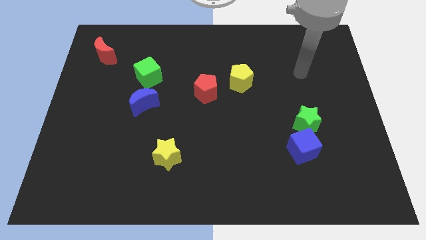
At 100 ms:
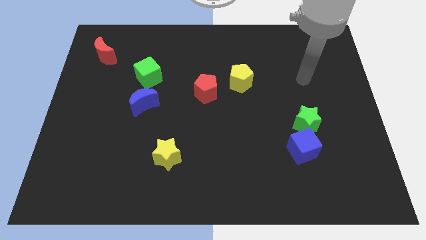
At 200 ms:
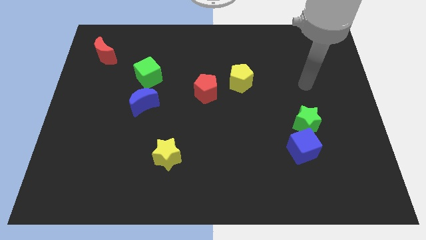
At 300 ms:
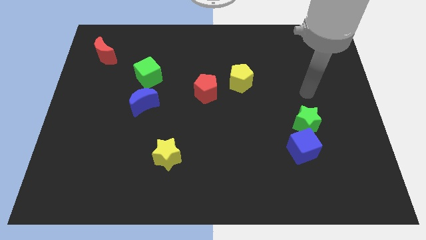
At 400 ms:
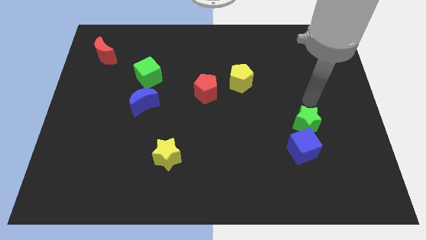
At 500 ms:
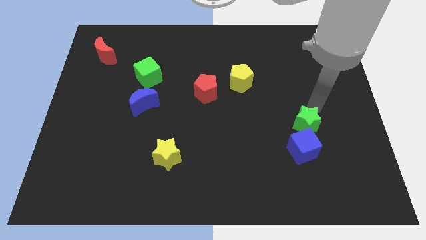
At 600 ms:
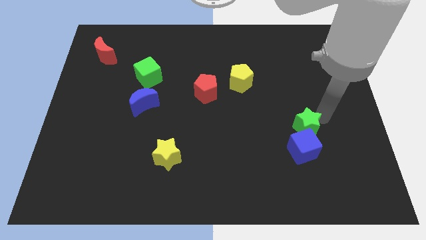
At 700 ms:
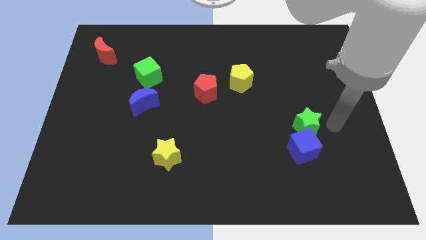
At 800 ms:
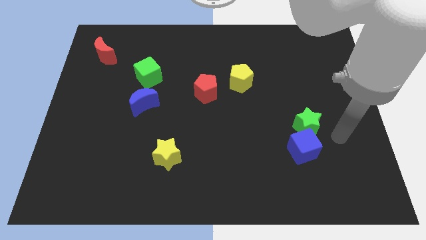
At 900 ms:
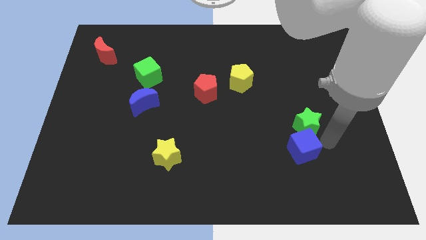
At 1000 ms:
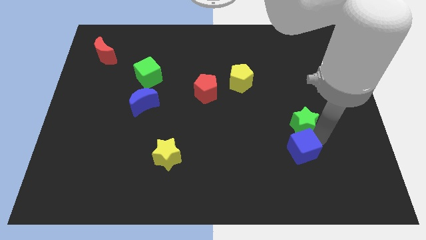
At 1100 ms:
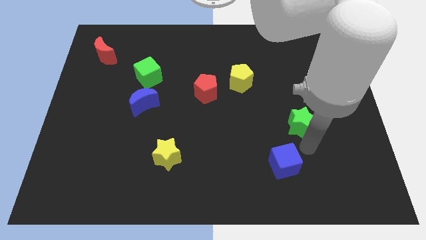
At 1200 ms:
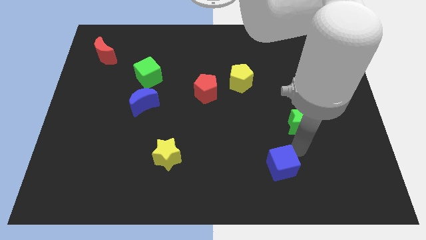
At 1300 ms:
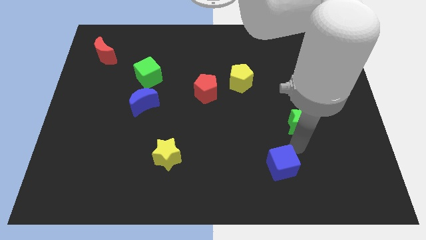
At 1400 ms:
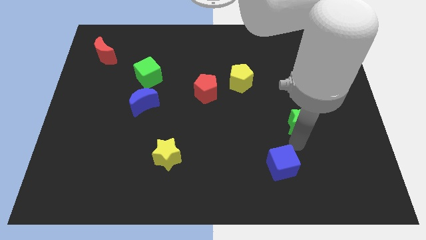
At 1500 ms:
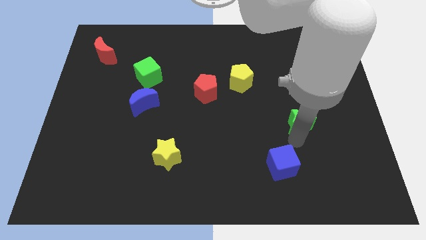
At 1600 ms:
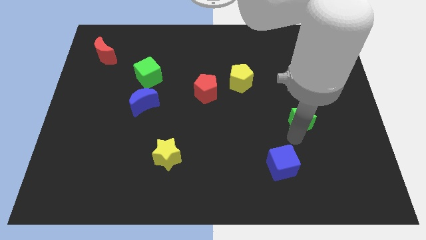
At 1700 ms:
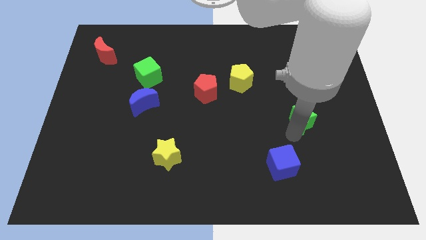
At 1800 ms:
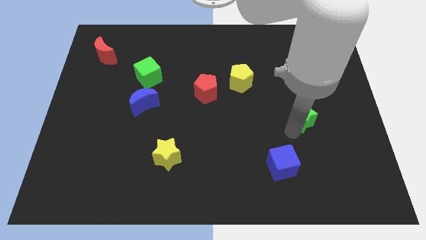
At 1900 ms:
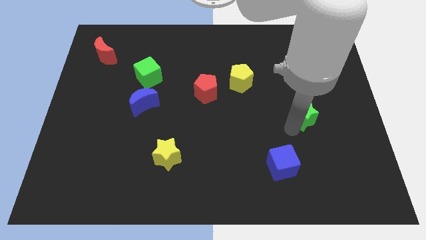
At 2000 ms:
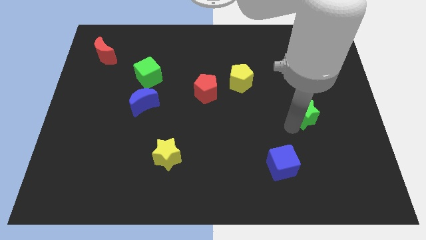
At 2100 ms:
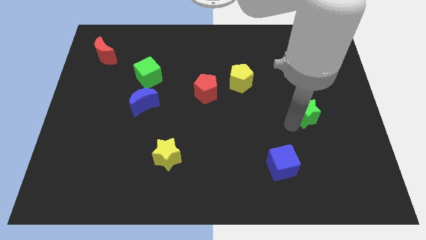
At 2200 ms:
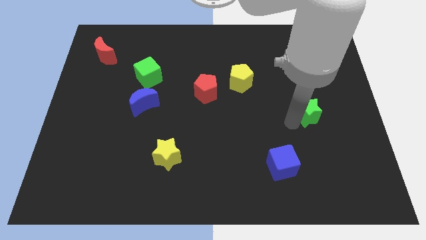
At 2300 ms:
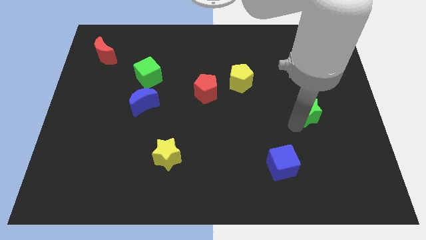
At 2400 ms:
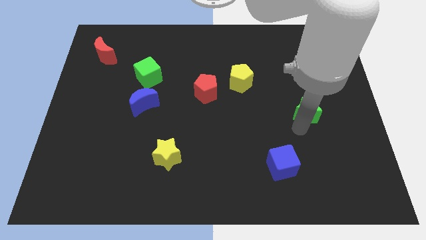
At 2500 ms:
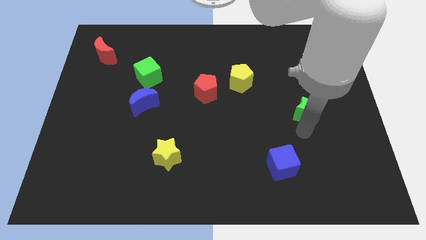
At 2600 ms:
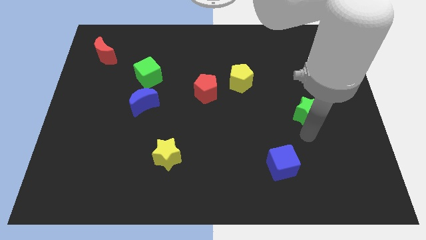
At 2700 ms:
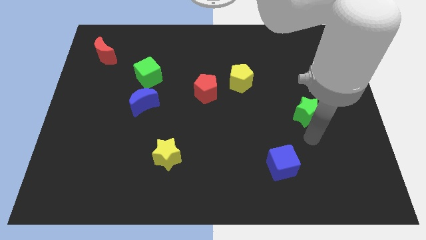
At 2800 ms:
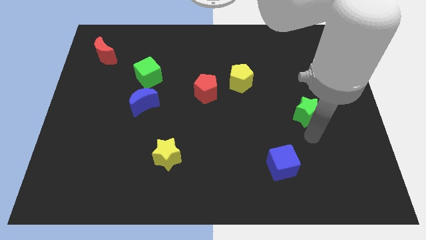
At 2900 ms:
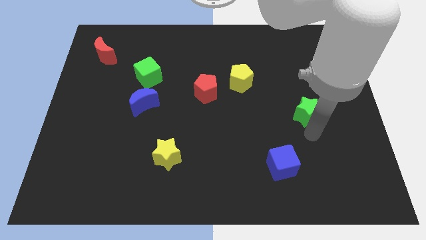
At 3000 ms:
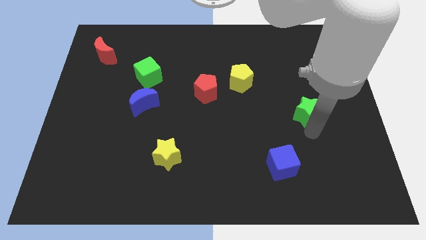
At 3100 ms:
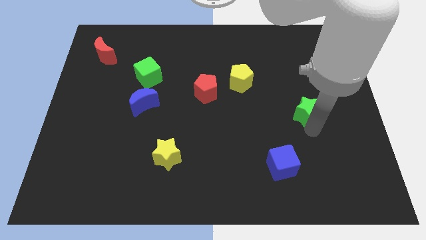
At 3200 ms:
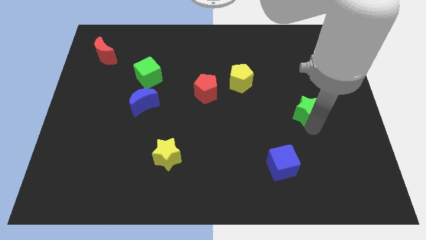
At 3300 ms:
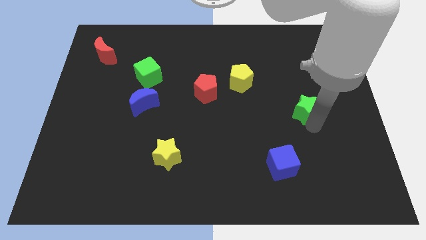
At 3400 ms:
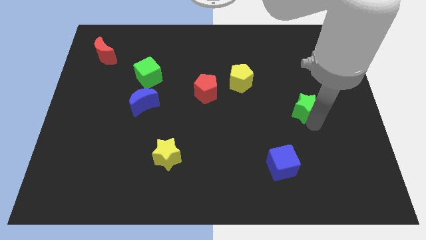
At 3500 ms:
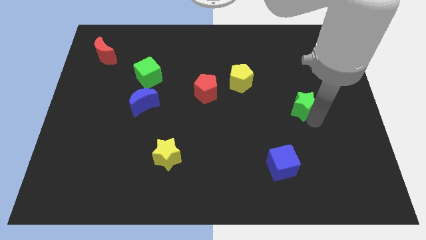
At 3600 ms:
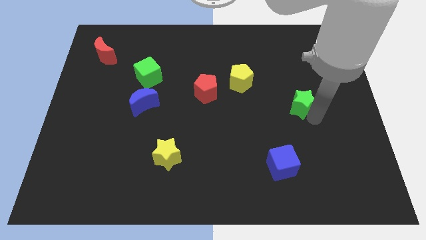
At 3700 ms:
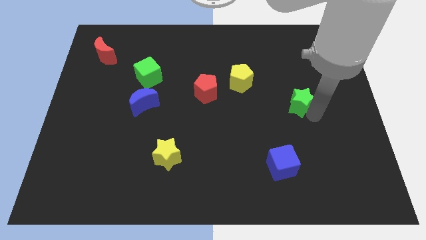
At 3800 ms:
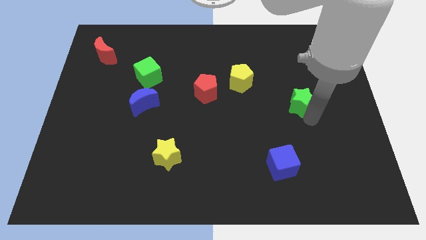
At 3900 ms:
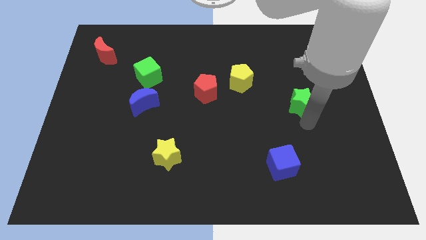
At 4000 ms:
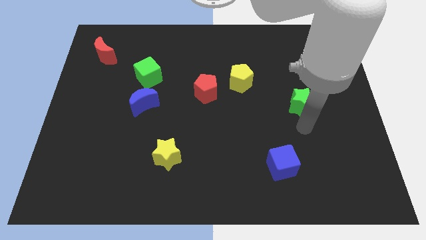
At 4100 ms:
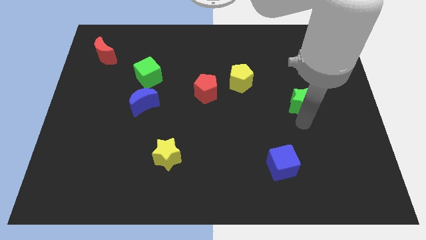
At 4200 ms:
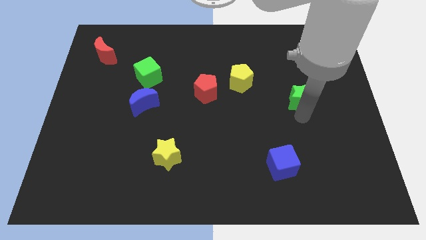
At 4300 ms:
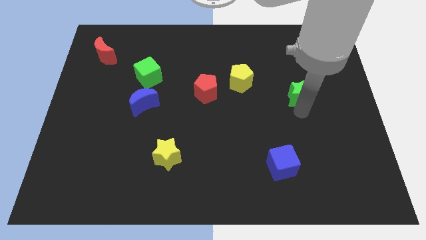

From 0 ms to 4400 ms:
slide the green star somewhat up

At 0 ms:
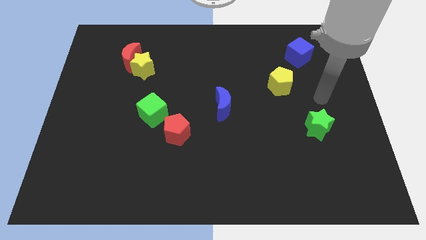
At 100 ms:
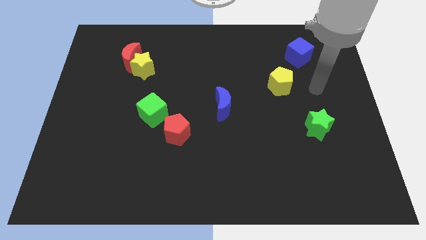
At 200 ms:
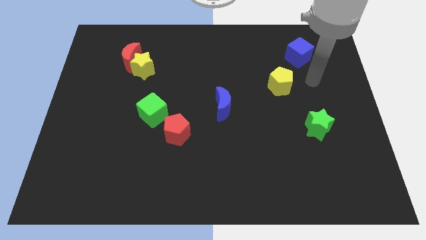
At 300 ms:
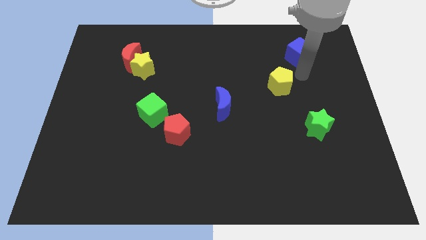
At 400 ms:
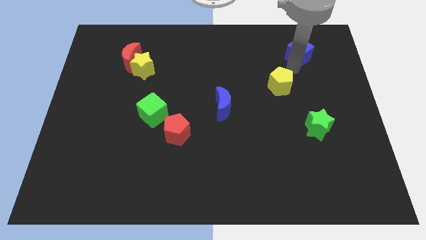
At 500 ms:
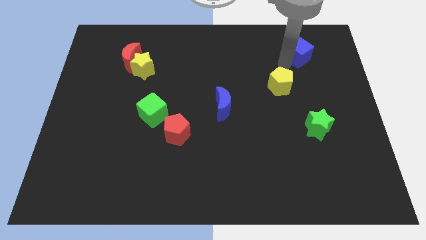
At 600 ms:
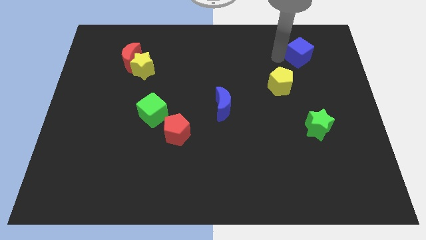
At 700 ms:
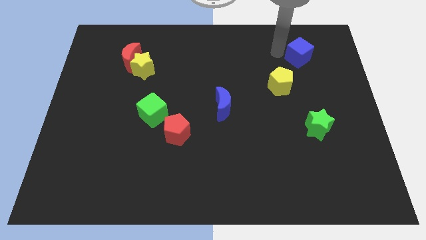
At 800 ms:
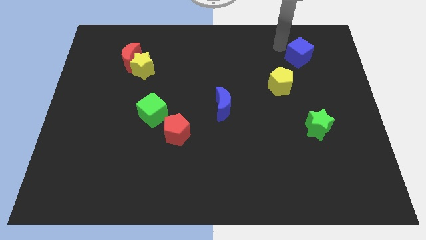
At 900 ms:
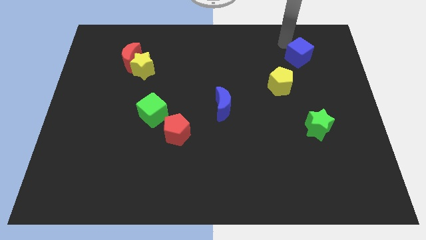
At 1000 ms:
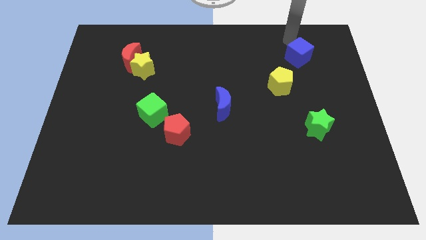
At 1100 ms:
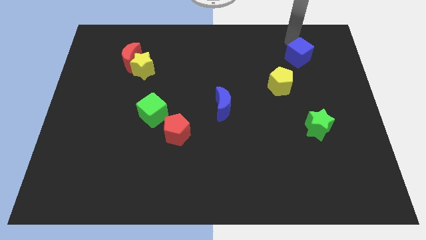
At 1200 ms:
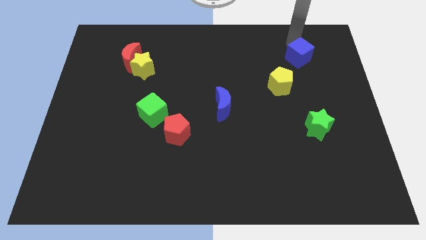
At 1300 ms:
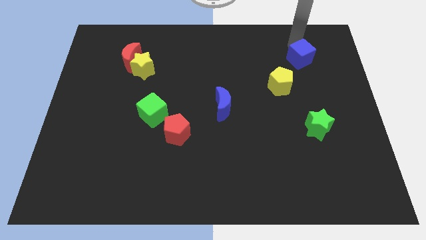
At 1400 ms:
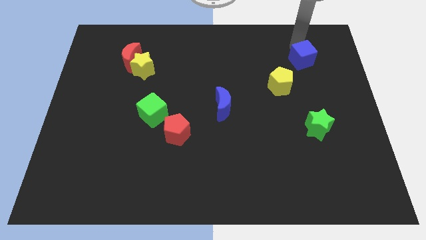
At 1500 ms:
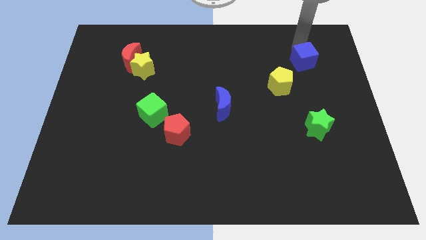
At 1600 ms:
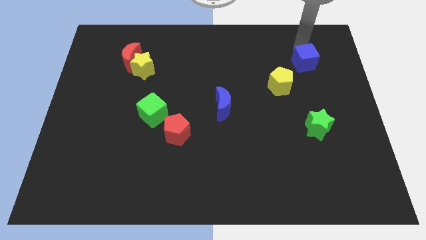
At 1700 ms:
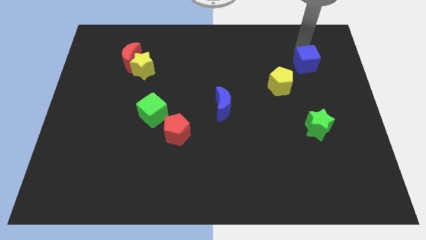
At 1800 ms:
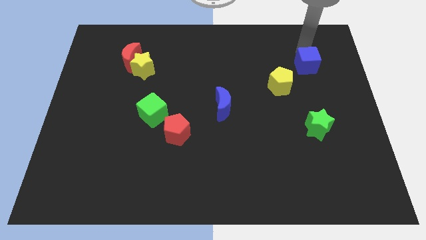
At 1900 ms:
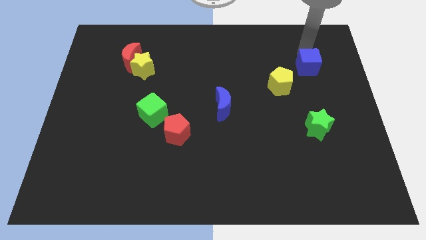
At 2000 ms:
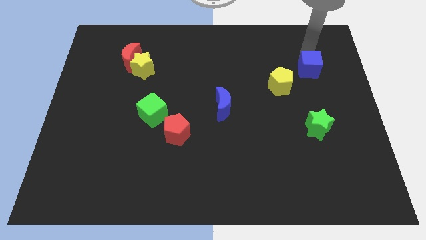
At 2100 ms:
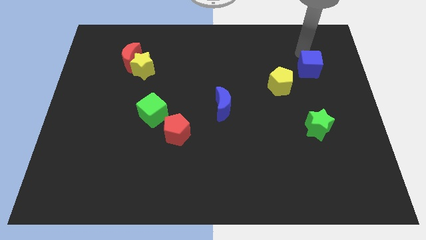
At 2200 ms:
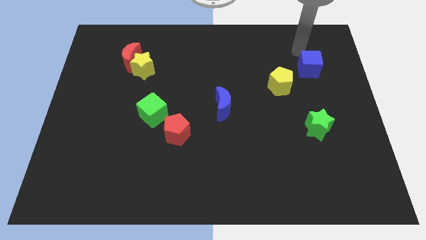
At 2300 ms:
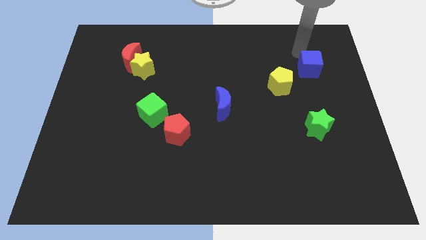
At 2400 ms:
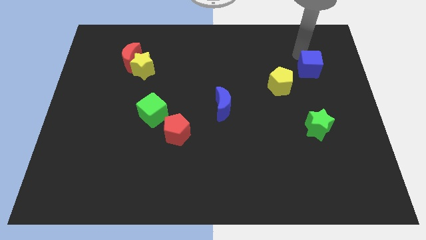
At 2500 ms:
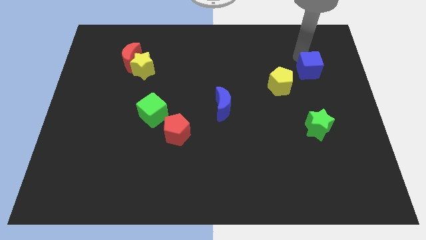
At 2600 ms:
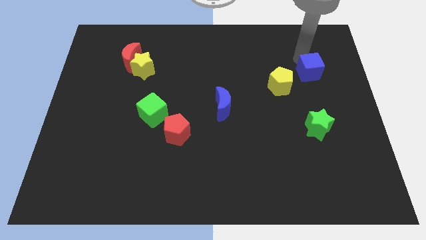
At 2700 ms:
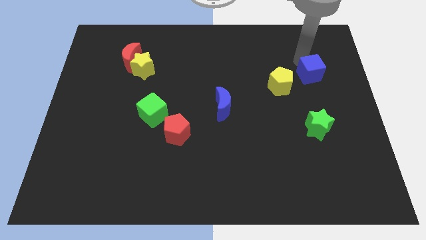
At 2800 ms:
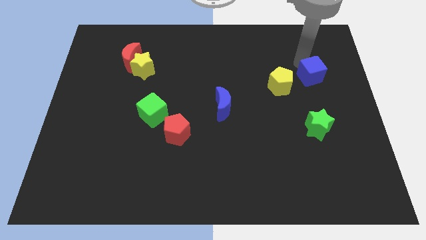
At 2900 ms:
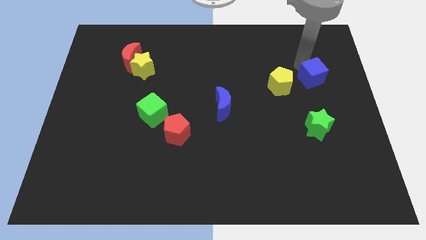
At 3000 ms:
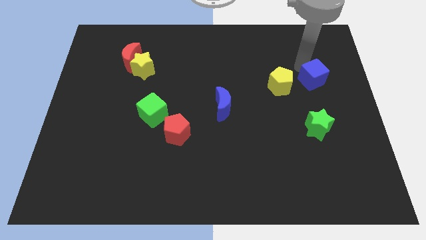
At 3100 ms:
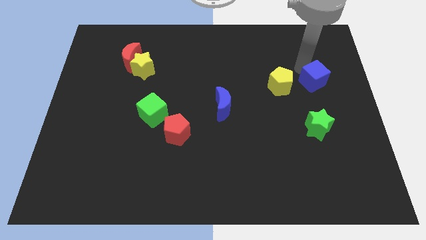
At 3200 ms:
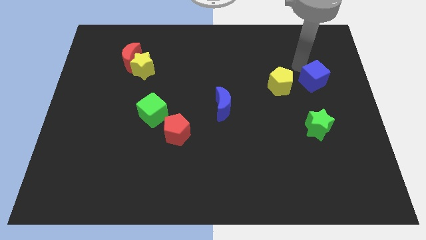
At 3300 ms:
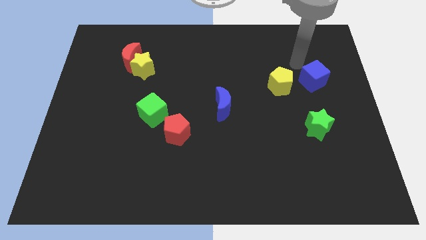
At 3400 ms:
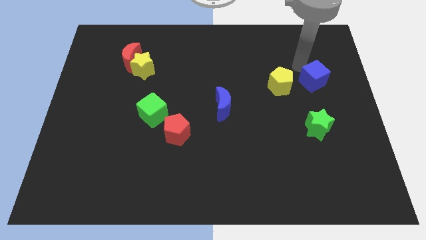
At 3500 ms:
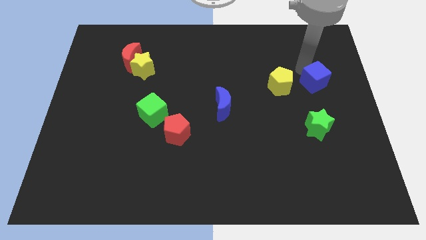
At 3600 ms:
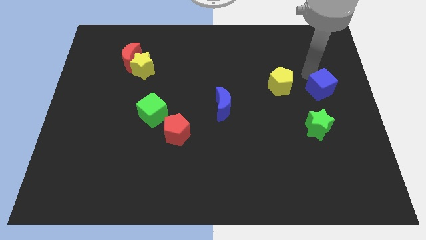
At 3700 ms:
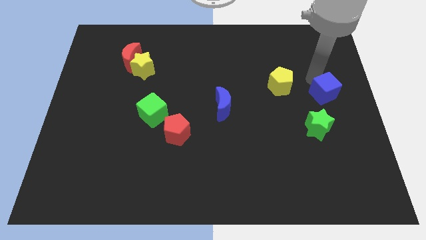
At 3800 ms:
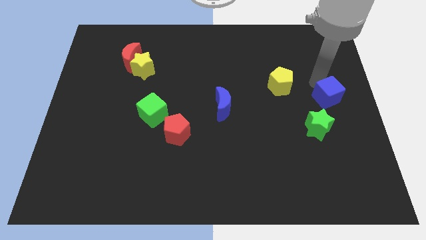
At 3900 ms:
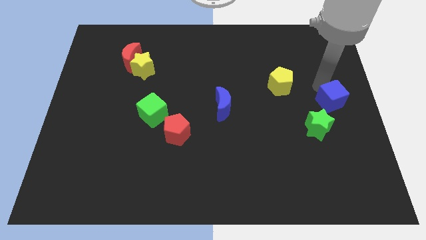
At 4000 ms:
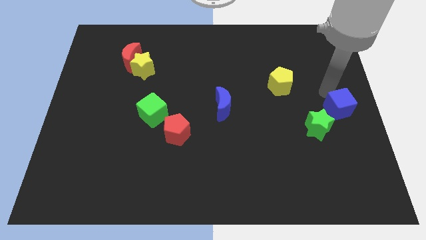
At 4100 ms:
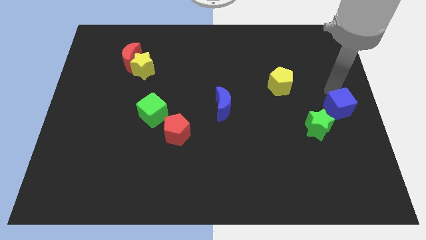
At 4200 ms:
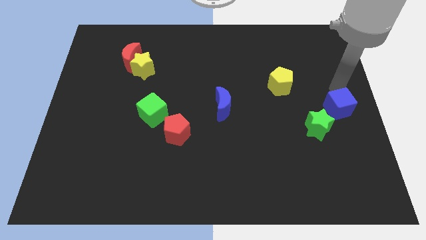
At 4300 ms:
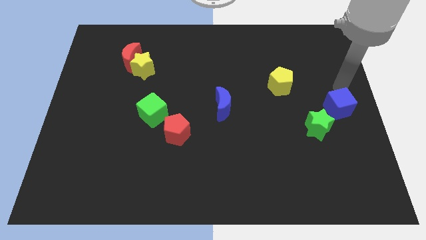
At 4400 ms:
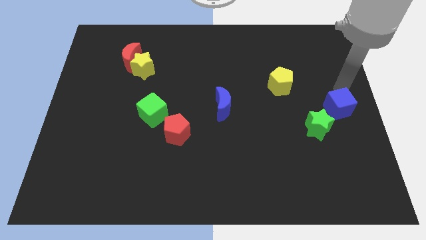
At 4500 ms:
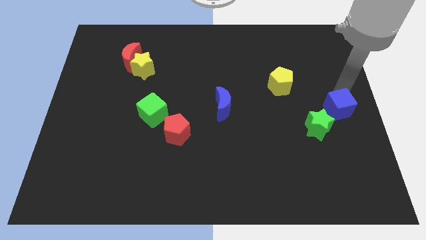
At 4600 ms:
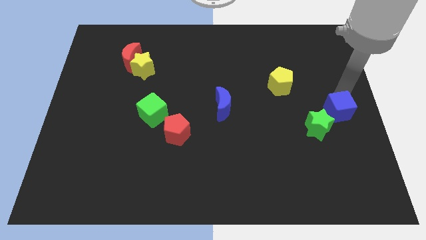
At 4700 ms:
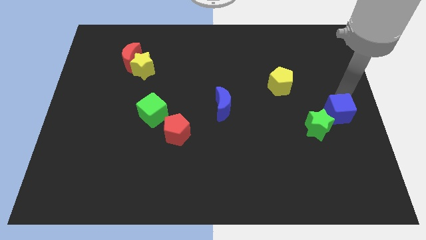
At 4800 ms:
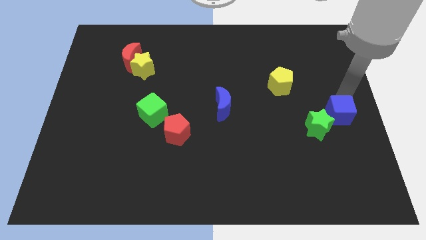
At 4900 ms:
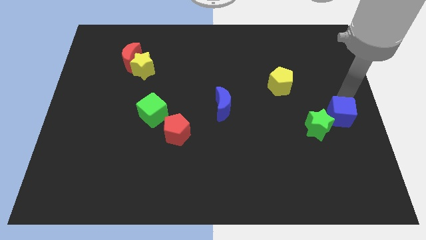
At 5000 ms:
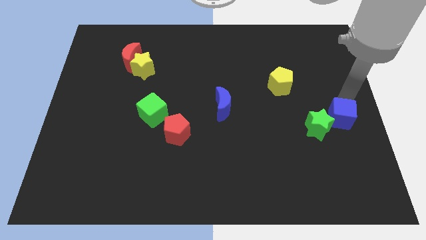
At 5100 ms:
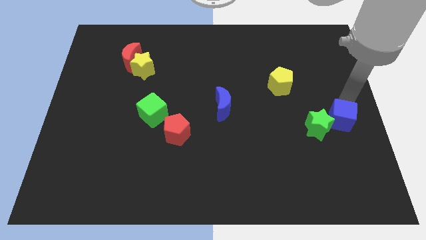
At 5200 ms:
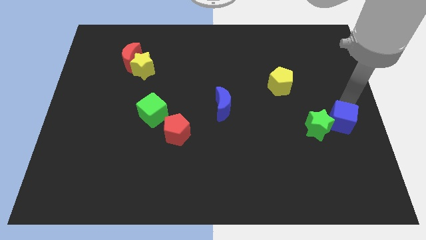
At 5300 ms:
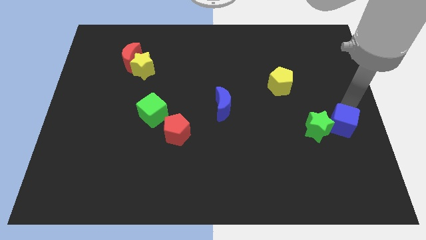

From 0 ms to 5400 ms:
slide the blue cube down
